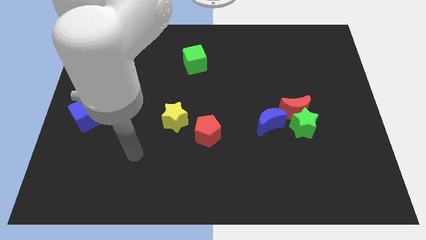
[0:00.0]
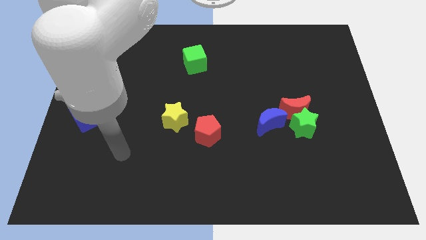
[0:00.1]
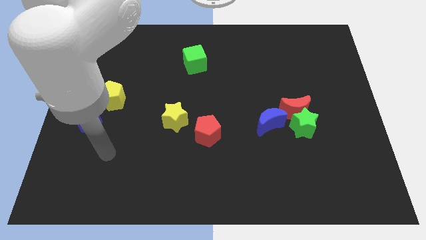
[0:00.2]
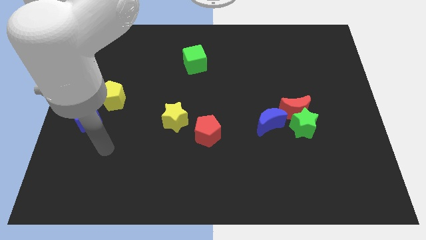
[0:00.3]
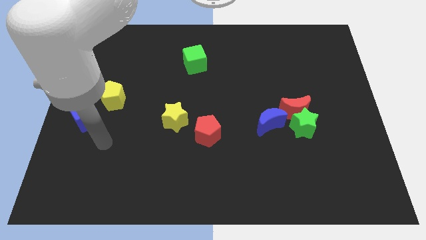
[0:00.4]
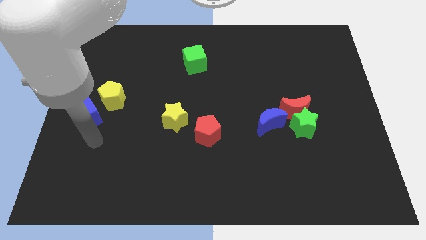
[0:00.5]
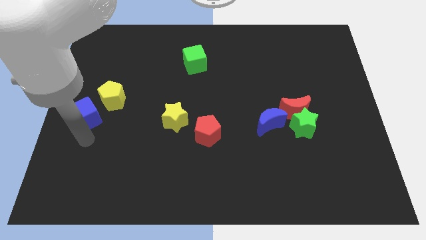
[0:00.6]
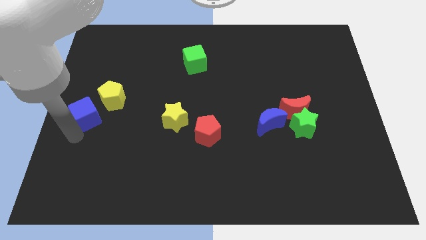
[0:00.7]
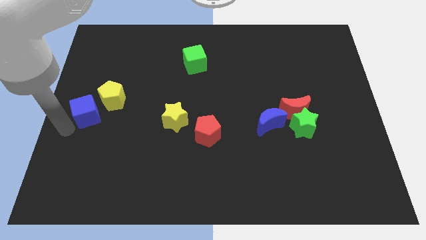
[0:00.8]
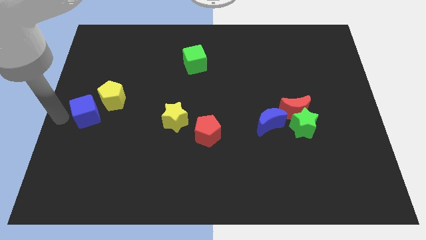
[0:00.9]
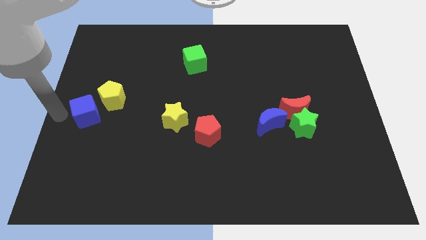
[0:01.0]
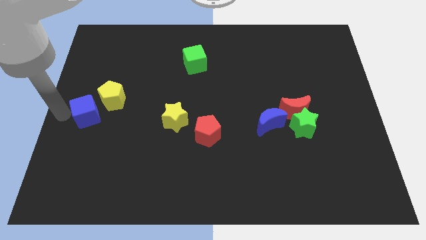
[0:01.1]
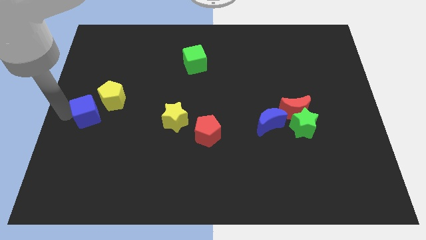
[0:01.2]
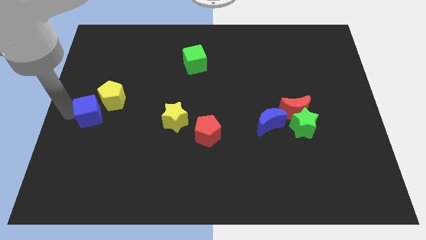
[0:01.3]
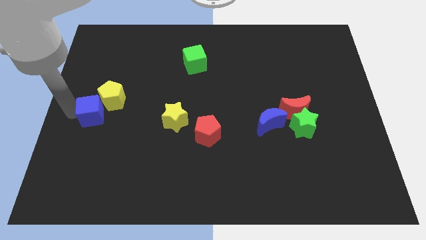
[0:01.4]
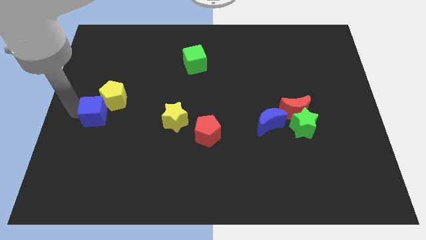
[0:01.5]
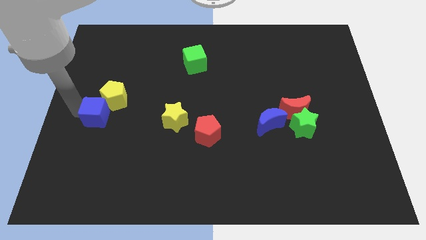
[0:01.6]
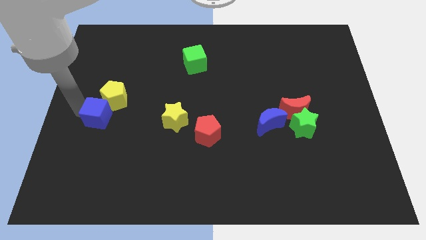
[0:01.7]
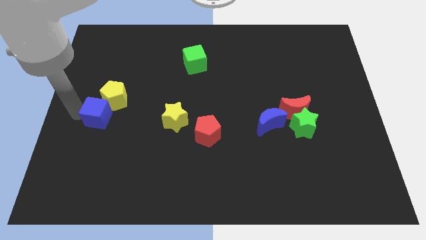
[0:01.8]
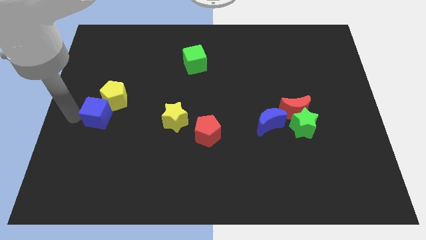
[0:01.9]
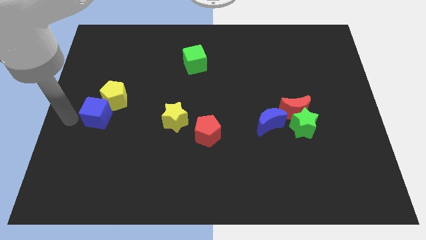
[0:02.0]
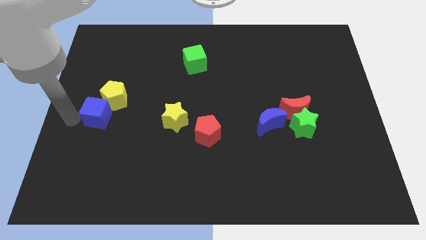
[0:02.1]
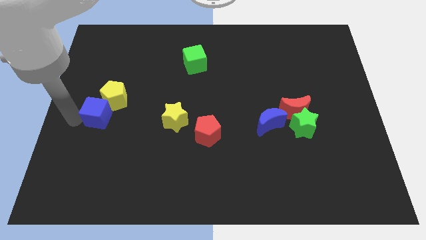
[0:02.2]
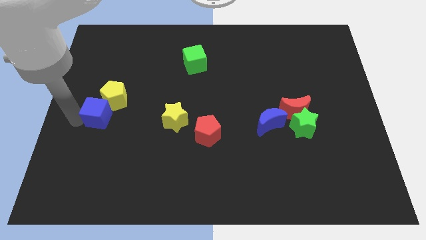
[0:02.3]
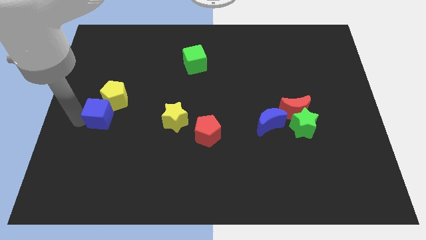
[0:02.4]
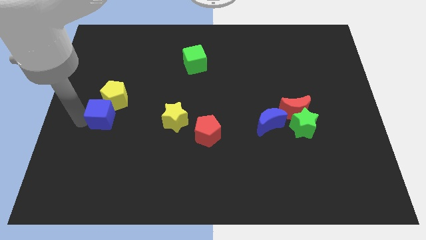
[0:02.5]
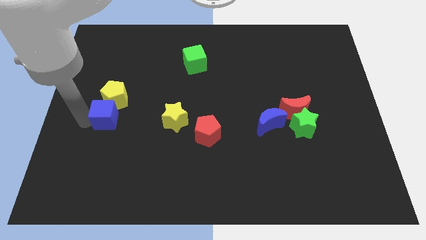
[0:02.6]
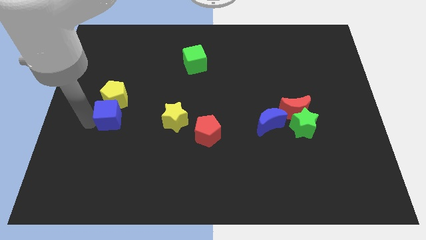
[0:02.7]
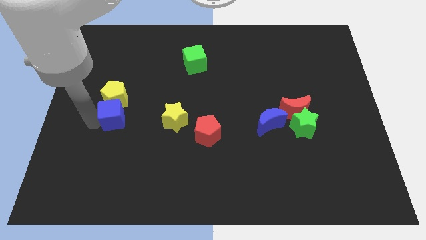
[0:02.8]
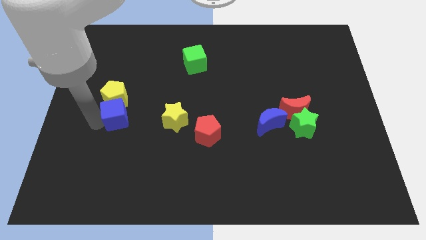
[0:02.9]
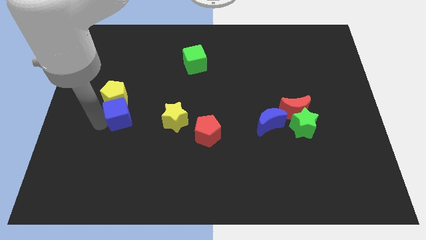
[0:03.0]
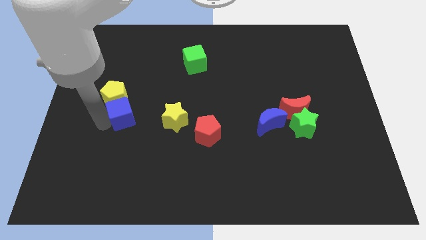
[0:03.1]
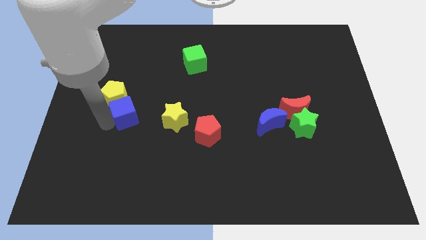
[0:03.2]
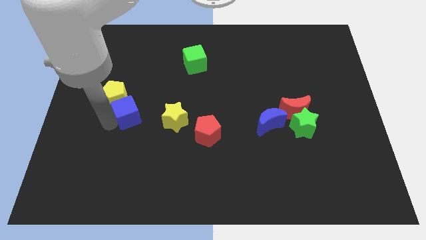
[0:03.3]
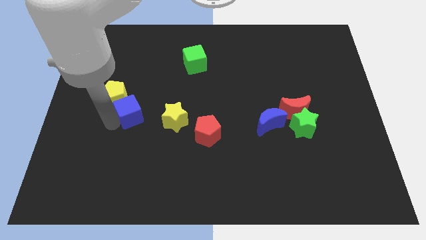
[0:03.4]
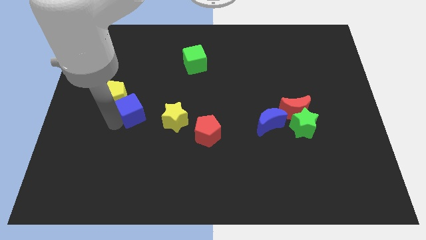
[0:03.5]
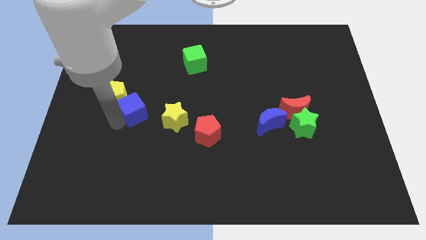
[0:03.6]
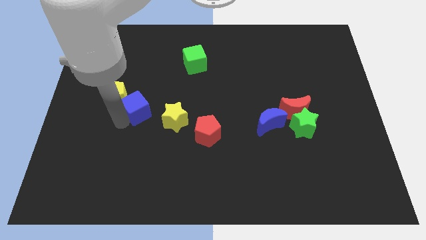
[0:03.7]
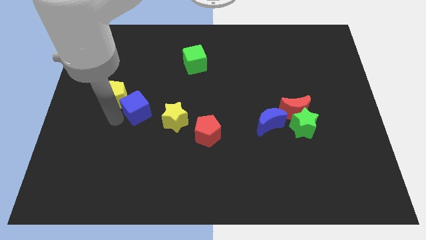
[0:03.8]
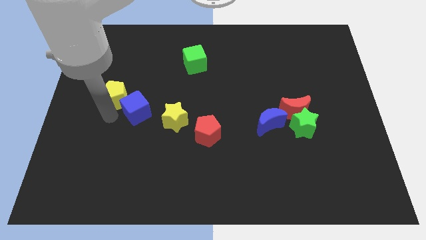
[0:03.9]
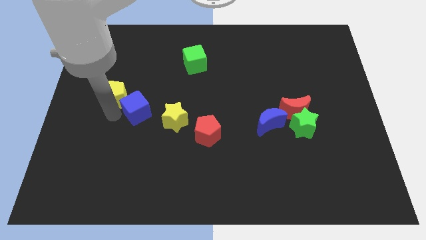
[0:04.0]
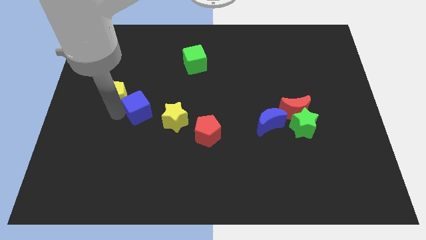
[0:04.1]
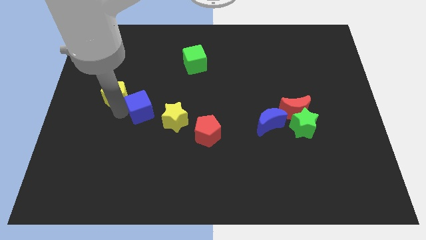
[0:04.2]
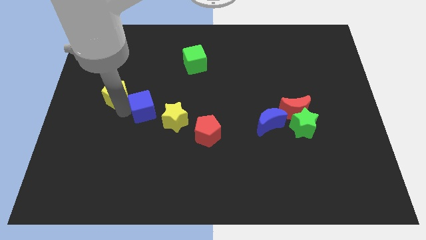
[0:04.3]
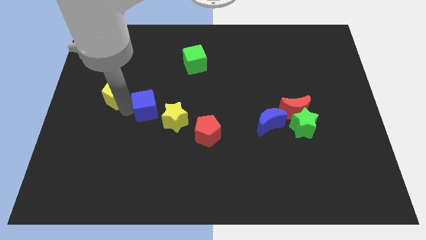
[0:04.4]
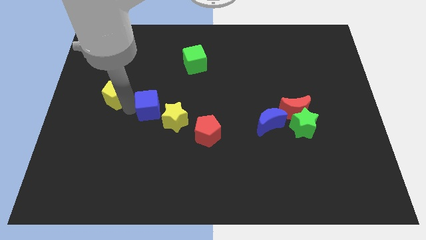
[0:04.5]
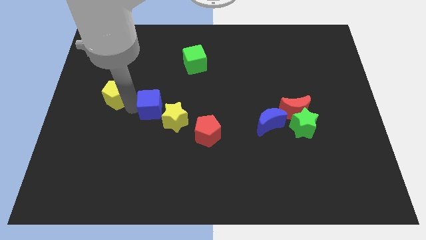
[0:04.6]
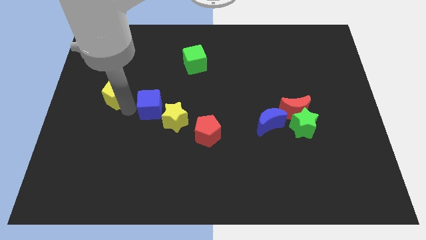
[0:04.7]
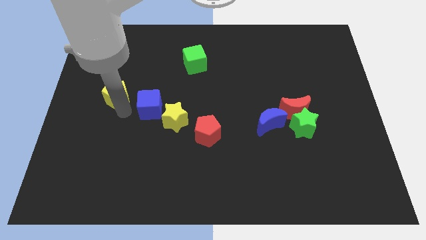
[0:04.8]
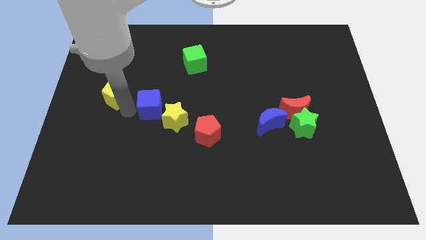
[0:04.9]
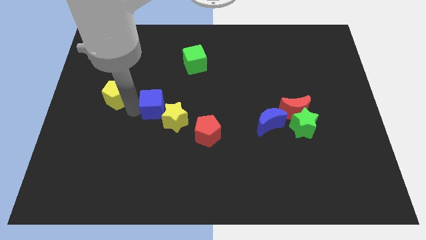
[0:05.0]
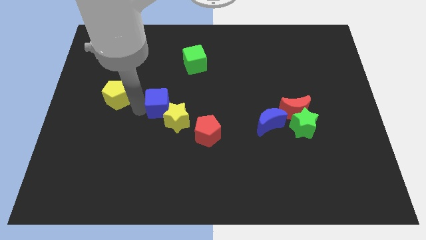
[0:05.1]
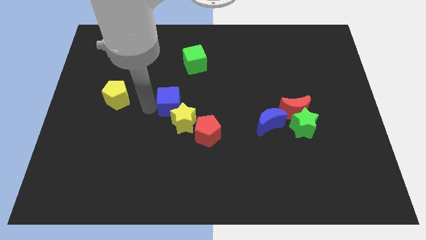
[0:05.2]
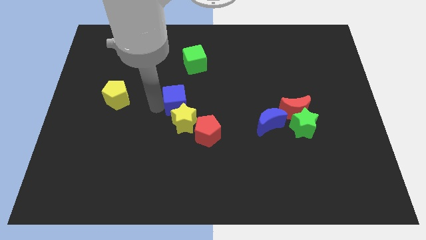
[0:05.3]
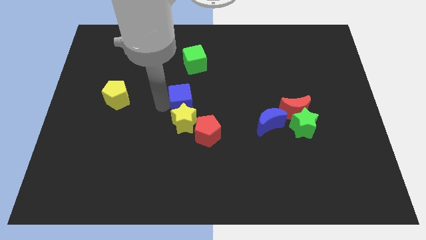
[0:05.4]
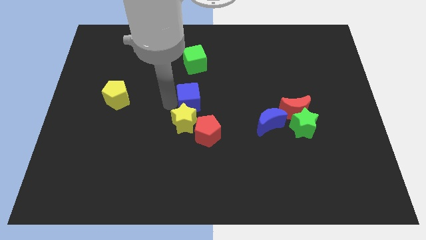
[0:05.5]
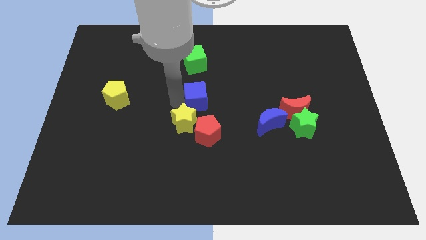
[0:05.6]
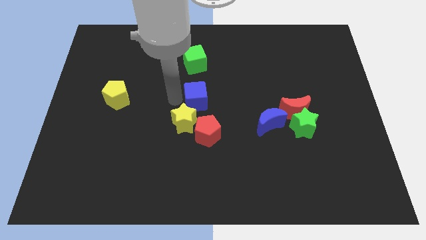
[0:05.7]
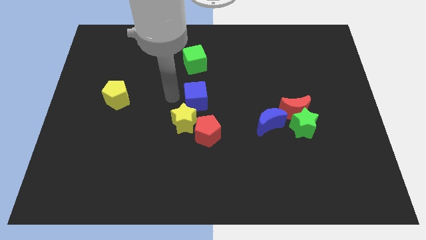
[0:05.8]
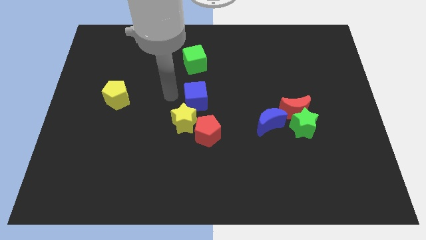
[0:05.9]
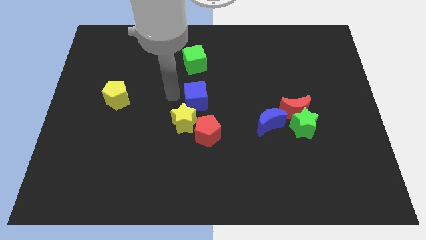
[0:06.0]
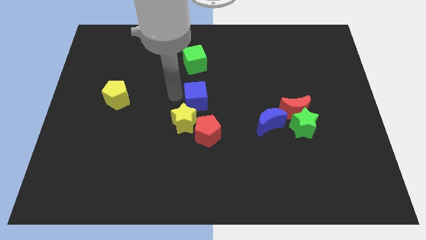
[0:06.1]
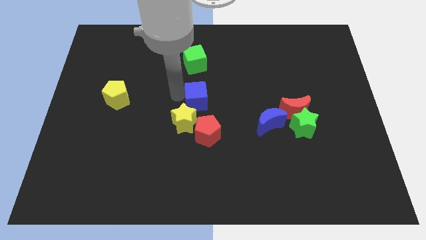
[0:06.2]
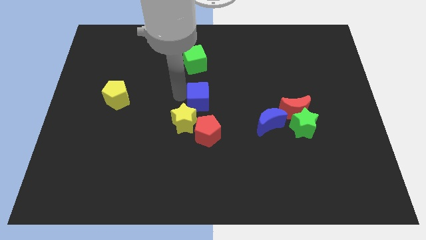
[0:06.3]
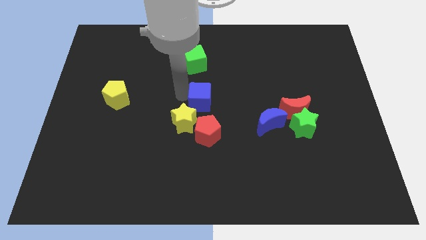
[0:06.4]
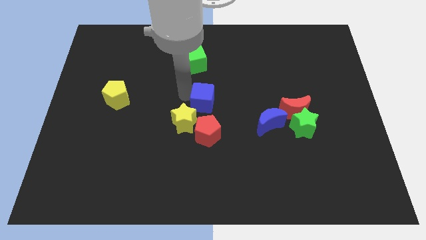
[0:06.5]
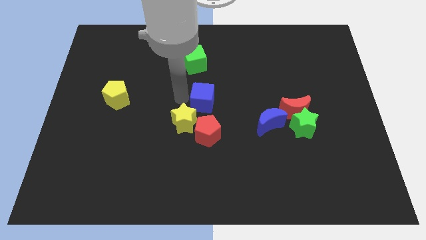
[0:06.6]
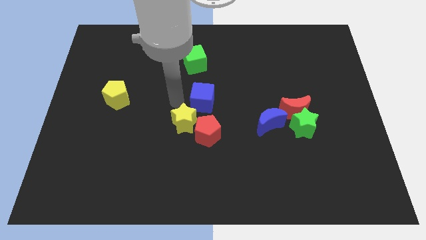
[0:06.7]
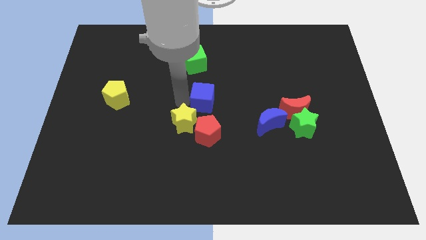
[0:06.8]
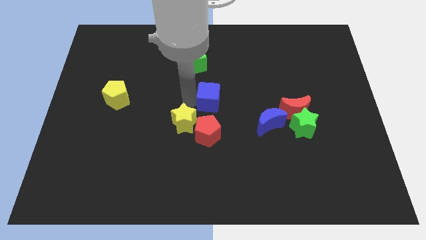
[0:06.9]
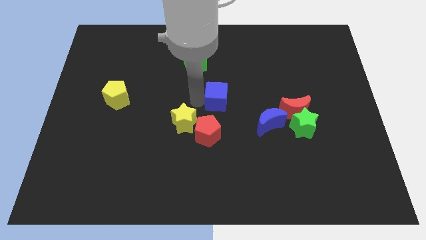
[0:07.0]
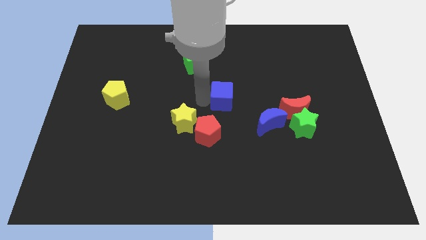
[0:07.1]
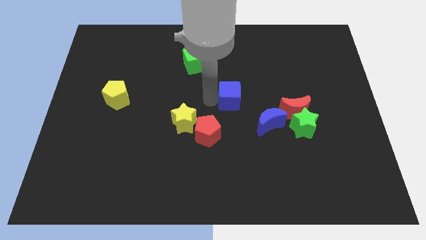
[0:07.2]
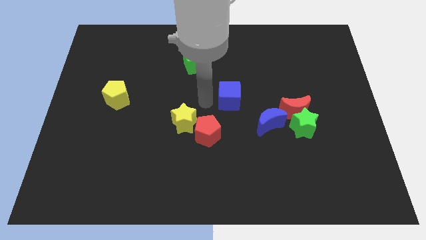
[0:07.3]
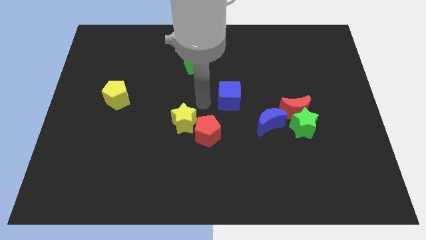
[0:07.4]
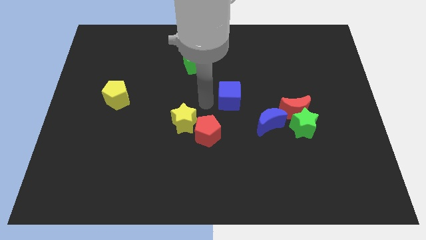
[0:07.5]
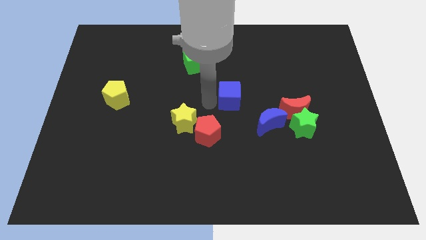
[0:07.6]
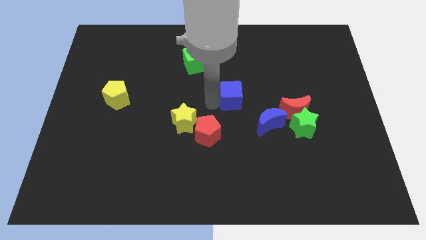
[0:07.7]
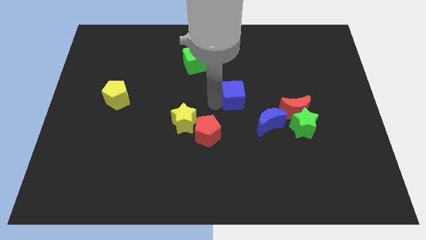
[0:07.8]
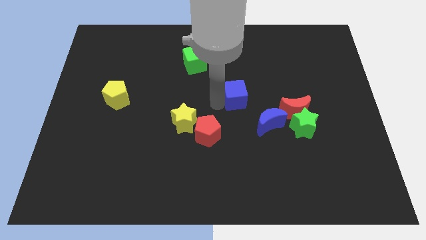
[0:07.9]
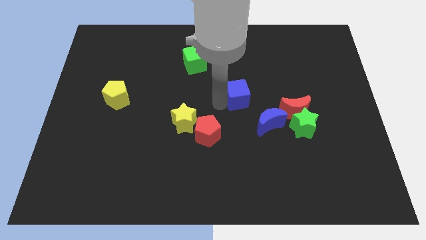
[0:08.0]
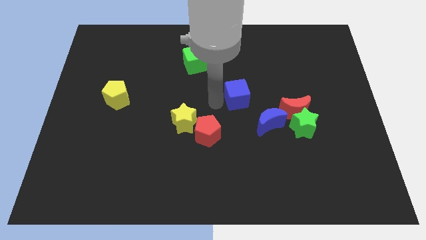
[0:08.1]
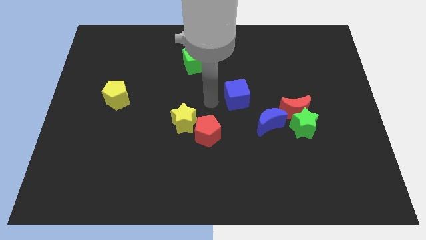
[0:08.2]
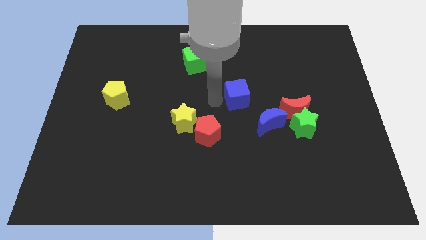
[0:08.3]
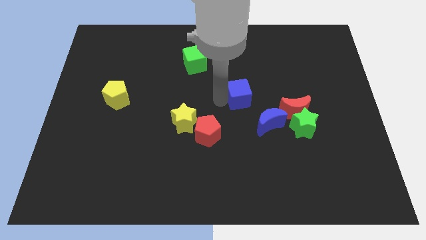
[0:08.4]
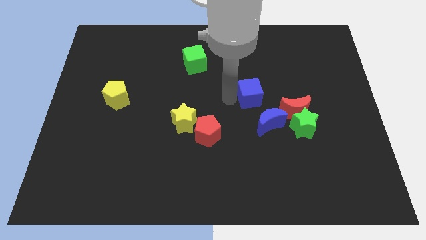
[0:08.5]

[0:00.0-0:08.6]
put the blue cube to the top left of the red moon
